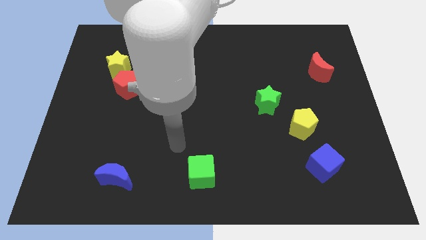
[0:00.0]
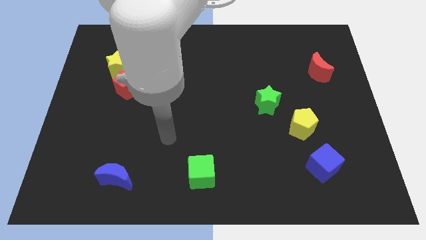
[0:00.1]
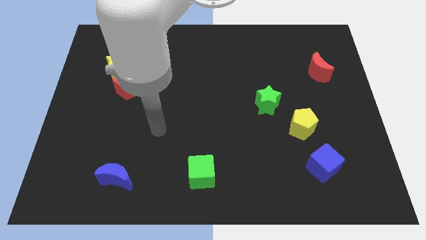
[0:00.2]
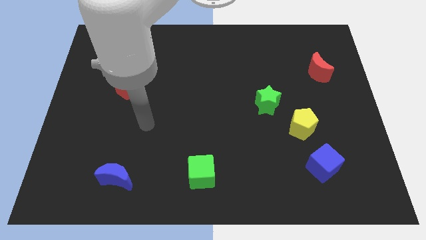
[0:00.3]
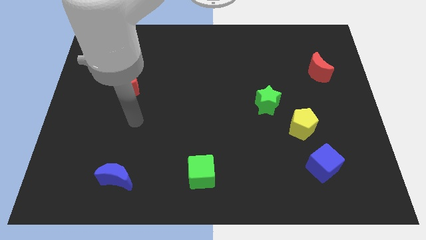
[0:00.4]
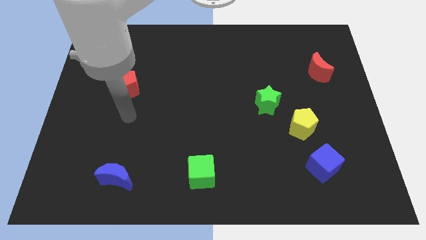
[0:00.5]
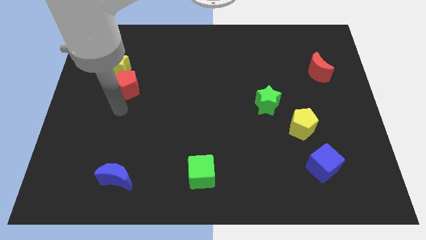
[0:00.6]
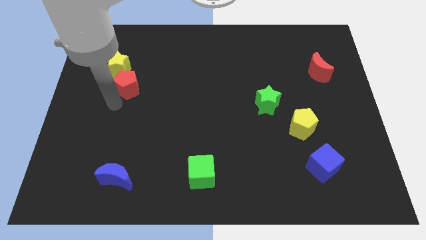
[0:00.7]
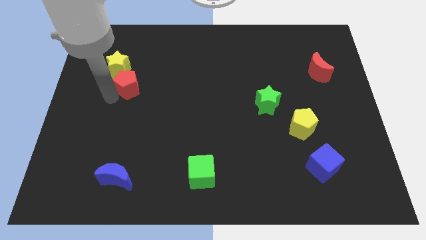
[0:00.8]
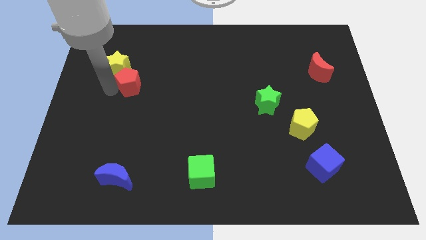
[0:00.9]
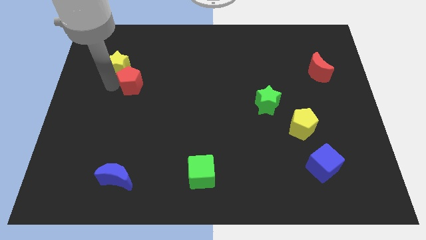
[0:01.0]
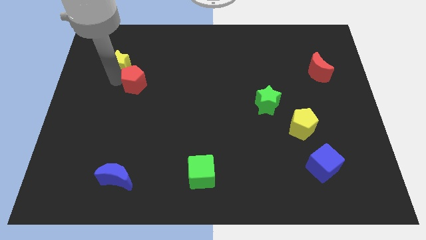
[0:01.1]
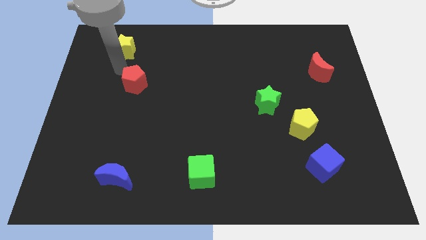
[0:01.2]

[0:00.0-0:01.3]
separate the red pentagon from the yellow star

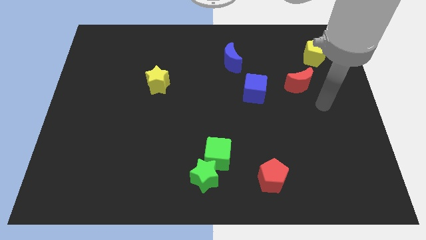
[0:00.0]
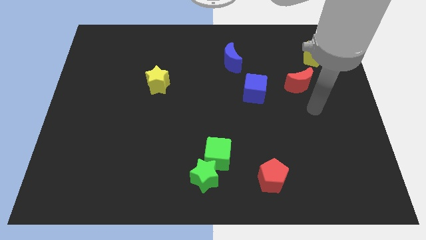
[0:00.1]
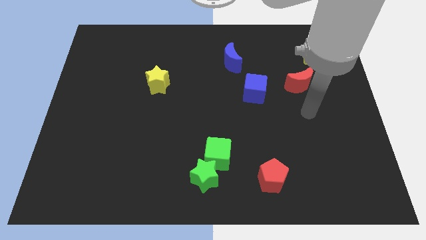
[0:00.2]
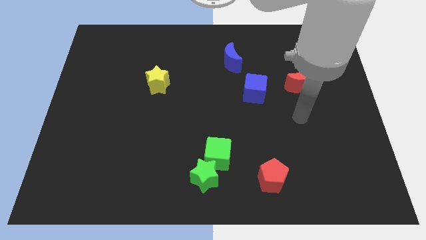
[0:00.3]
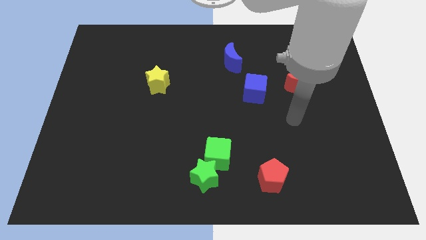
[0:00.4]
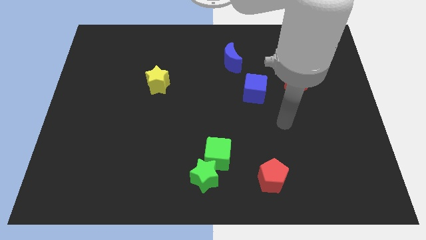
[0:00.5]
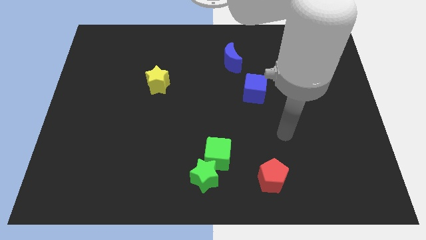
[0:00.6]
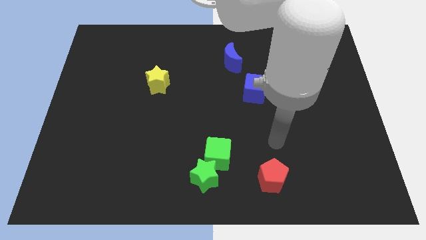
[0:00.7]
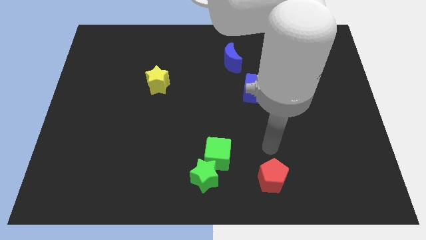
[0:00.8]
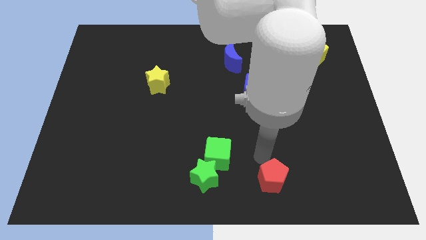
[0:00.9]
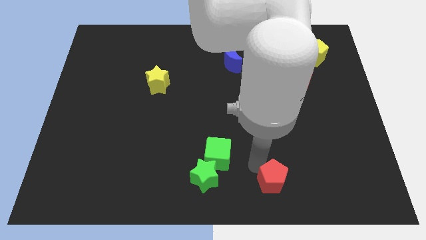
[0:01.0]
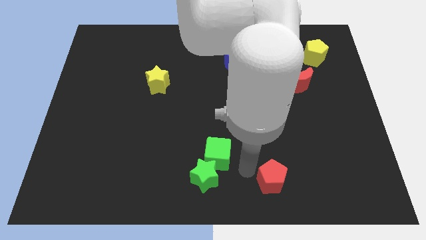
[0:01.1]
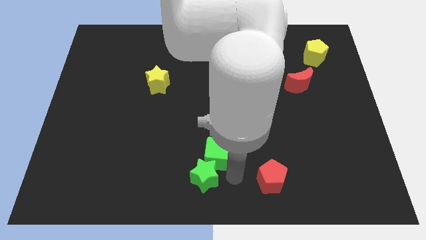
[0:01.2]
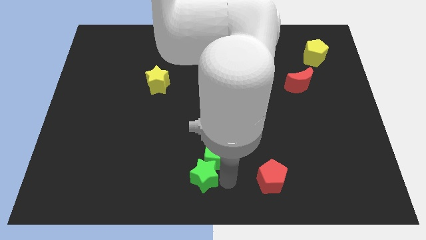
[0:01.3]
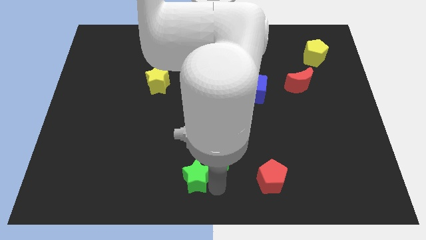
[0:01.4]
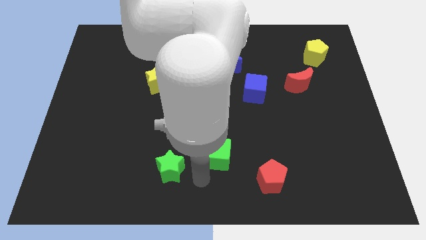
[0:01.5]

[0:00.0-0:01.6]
separate the green cube from the green star

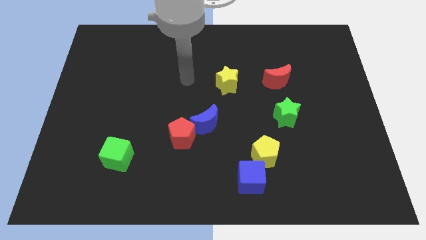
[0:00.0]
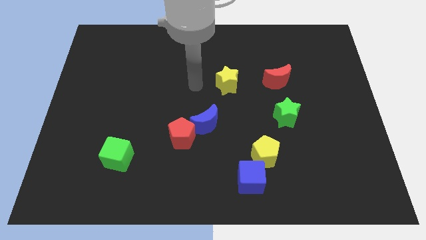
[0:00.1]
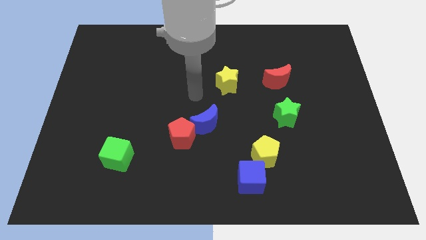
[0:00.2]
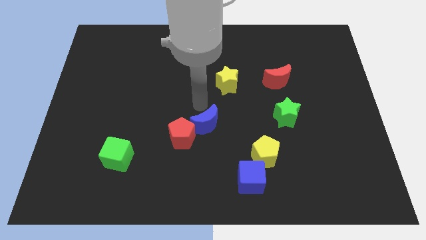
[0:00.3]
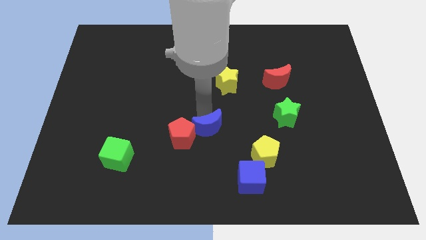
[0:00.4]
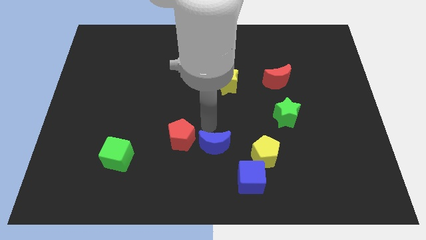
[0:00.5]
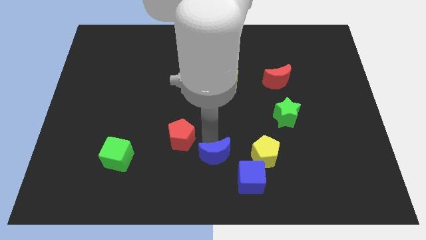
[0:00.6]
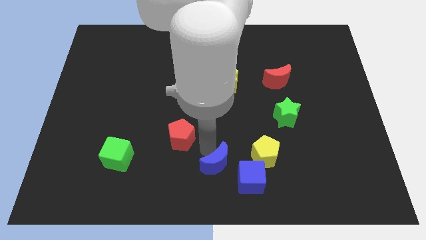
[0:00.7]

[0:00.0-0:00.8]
move the red pentagon away from the blue moon

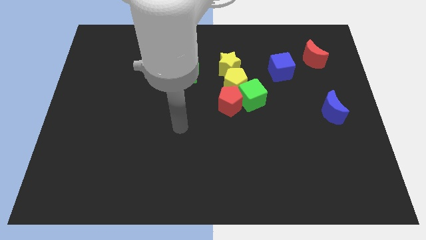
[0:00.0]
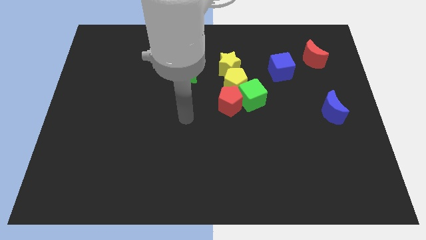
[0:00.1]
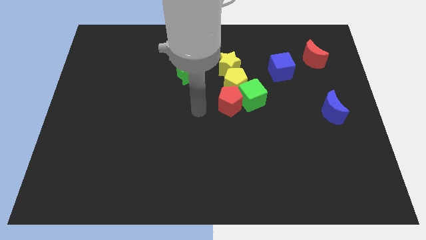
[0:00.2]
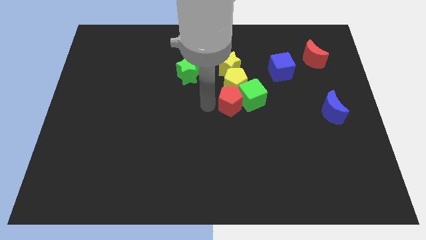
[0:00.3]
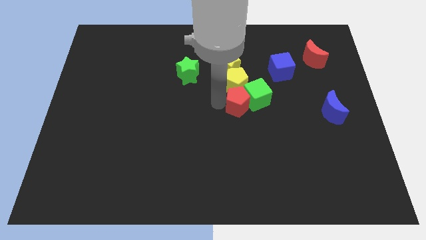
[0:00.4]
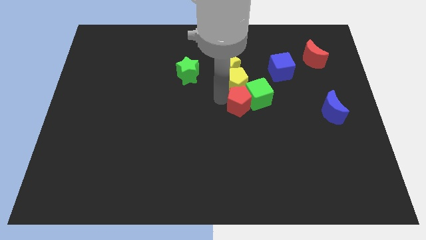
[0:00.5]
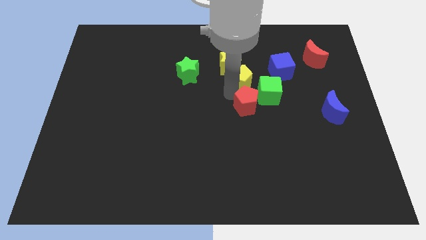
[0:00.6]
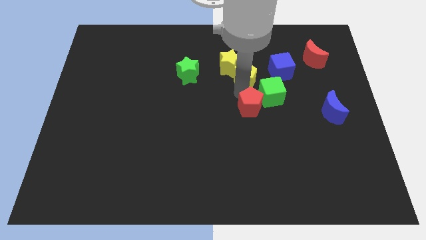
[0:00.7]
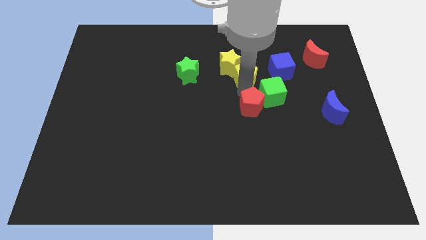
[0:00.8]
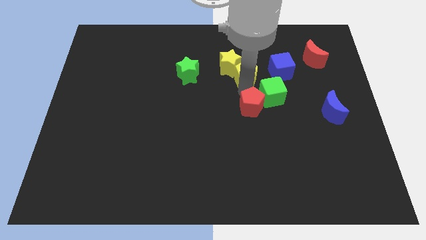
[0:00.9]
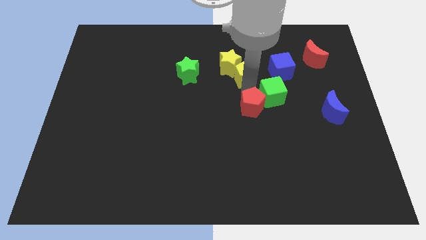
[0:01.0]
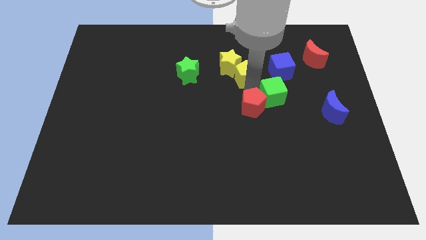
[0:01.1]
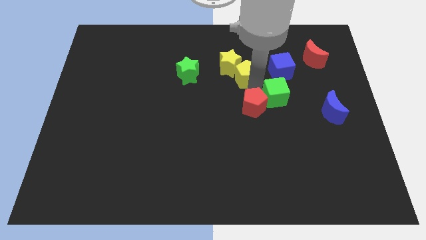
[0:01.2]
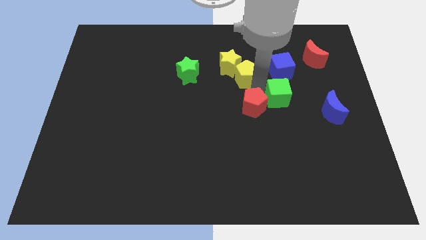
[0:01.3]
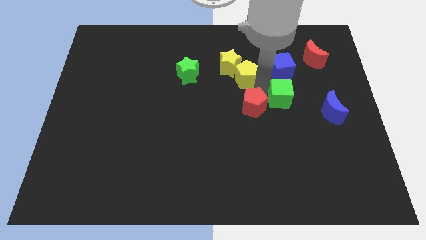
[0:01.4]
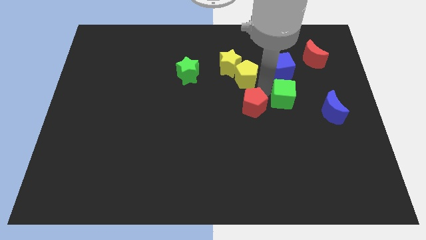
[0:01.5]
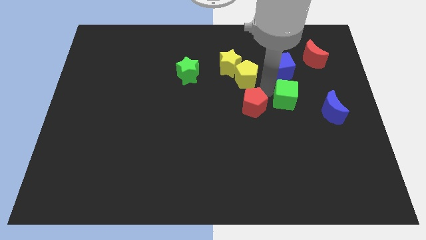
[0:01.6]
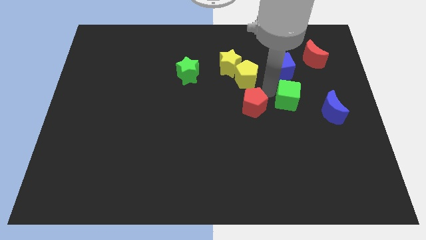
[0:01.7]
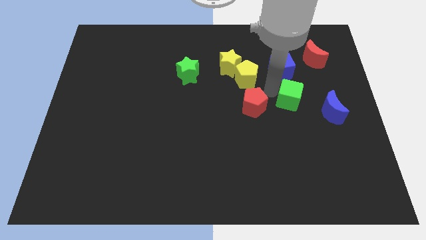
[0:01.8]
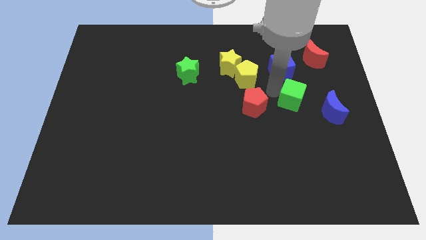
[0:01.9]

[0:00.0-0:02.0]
move the green cube away from the red pentagon and yellow pentagon

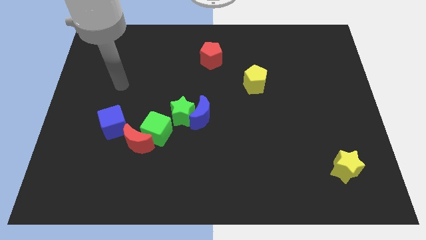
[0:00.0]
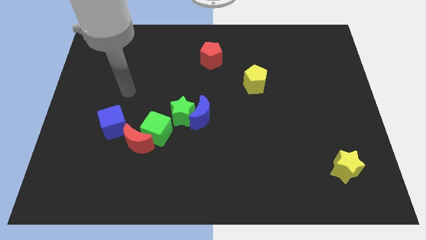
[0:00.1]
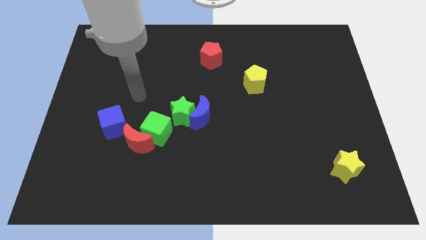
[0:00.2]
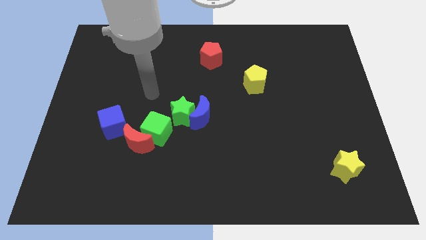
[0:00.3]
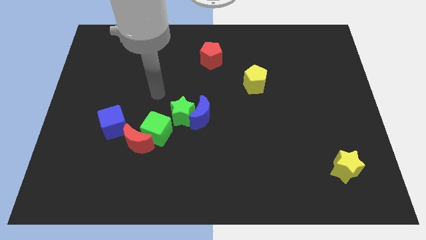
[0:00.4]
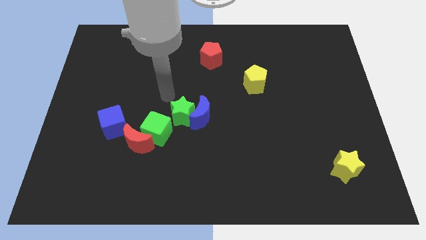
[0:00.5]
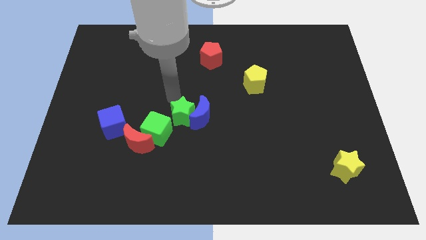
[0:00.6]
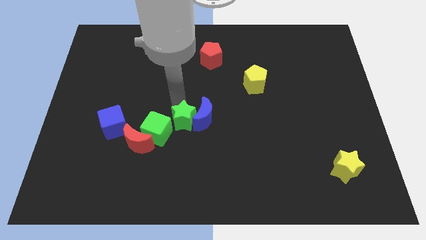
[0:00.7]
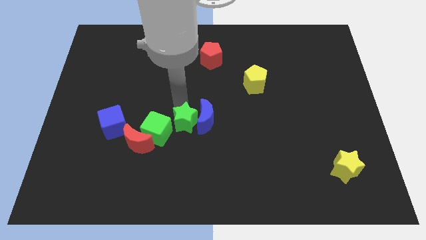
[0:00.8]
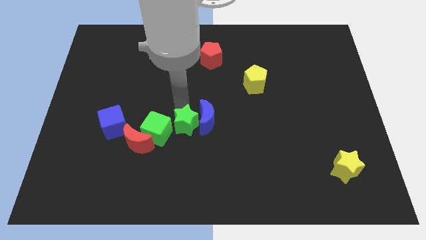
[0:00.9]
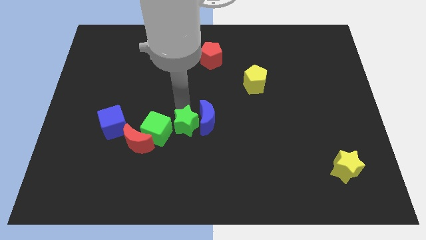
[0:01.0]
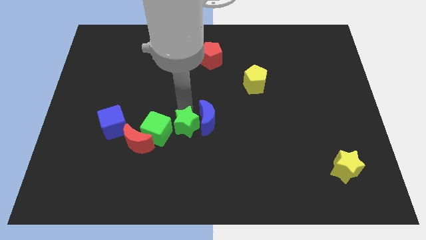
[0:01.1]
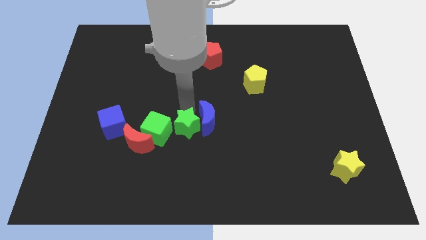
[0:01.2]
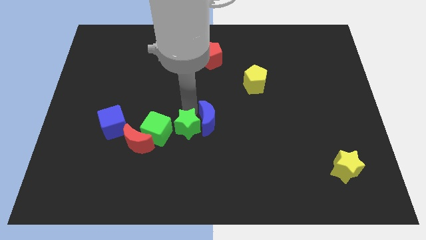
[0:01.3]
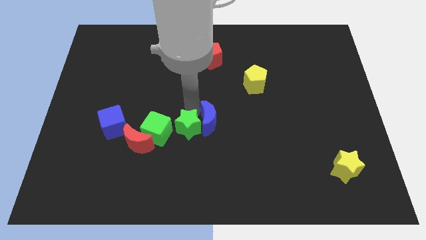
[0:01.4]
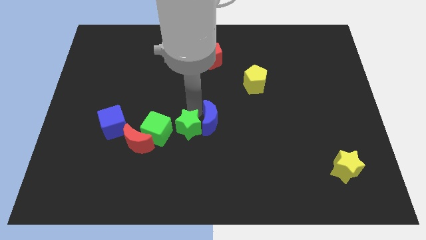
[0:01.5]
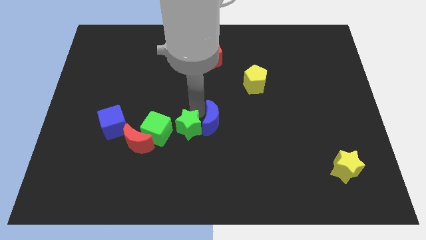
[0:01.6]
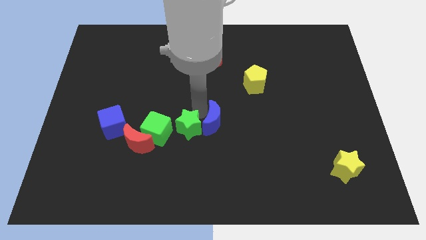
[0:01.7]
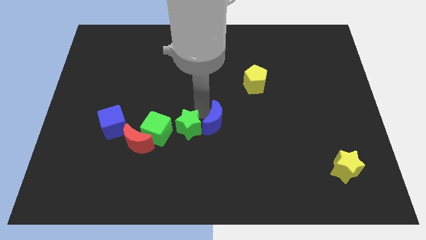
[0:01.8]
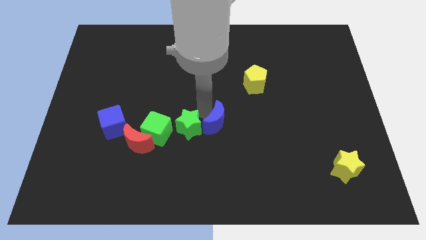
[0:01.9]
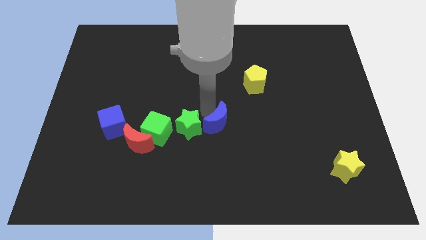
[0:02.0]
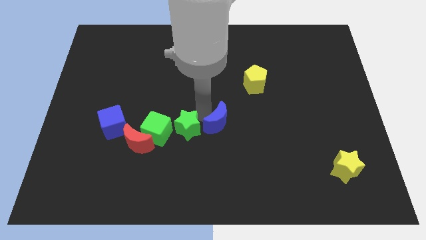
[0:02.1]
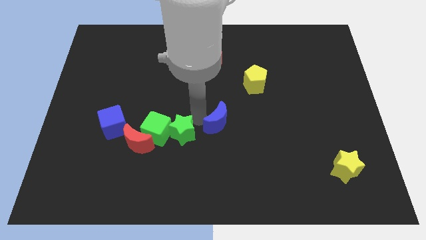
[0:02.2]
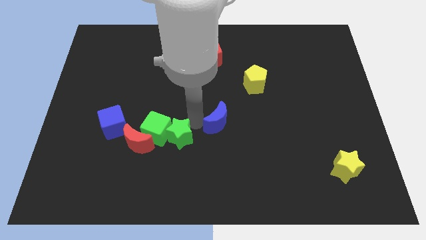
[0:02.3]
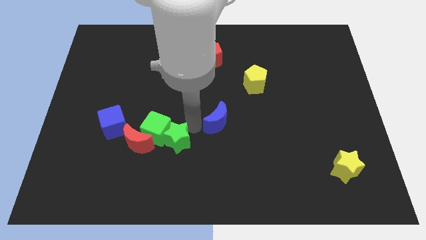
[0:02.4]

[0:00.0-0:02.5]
pull the blue moon apart from the green star

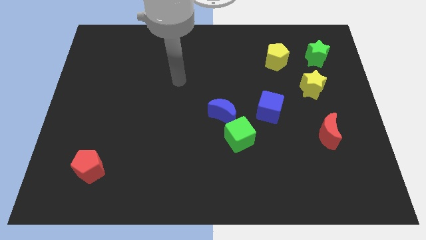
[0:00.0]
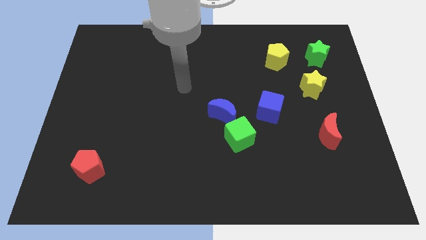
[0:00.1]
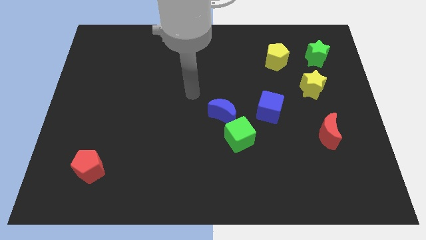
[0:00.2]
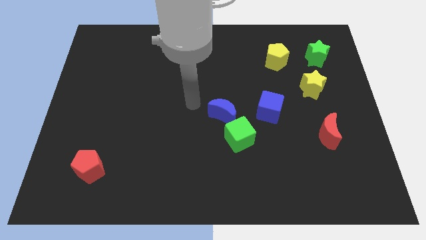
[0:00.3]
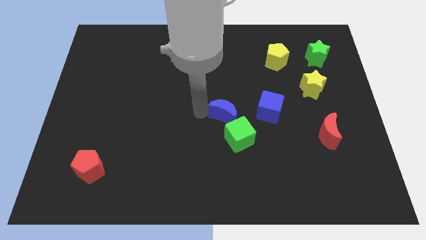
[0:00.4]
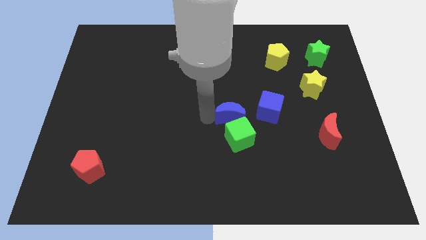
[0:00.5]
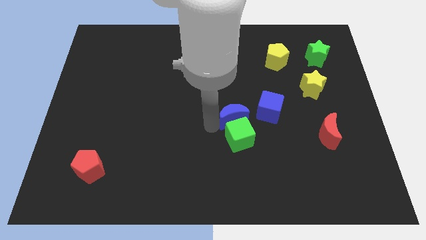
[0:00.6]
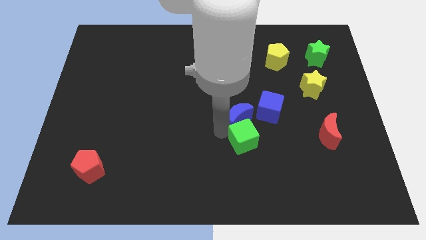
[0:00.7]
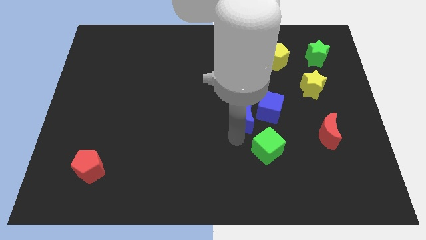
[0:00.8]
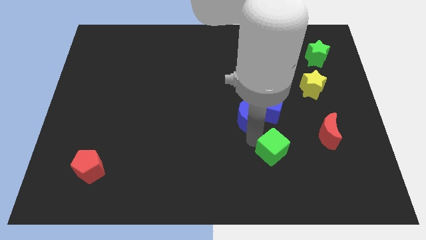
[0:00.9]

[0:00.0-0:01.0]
pull the blue moon apart from the green cube
